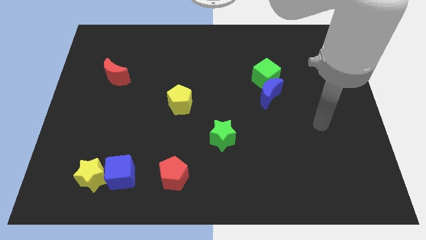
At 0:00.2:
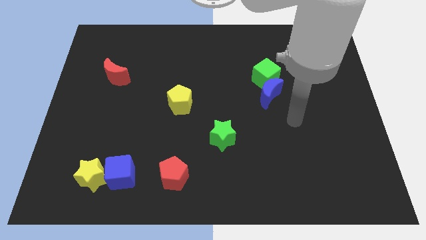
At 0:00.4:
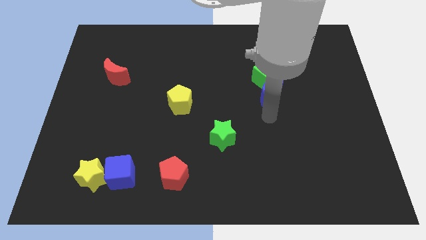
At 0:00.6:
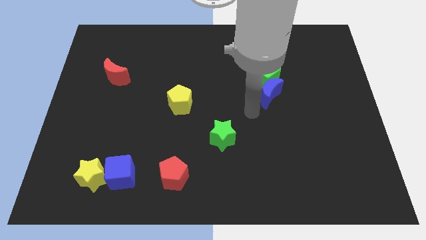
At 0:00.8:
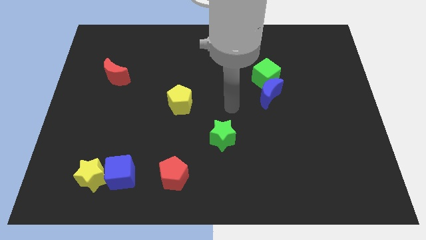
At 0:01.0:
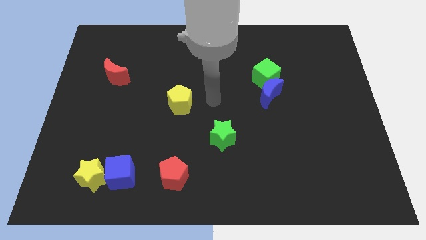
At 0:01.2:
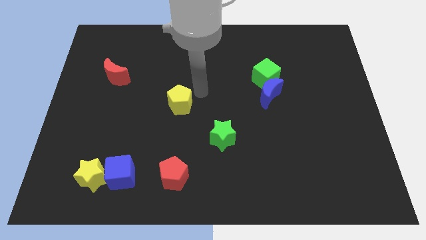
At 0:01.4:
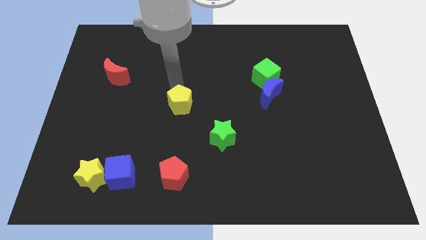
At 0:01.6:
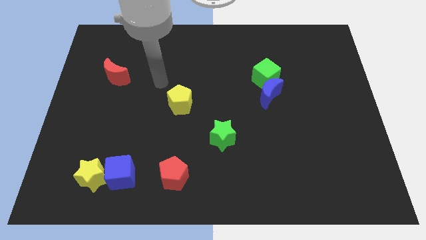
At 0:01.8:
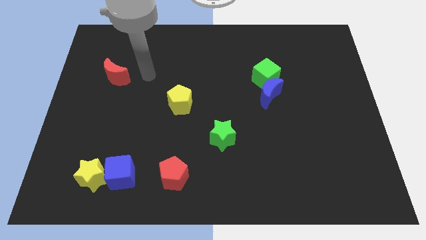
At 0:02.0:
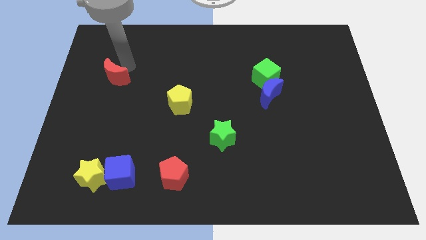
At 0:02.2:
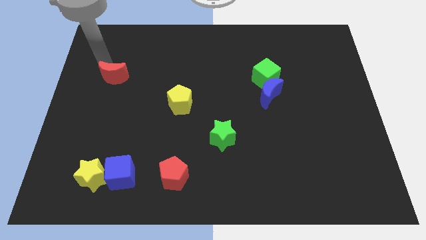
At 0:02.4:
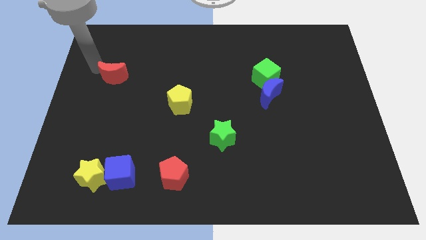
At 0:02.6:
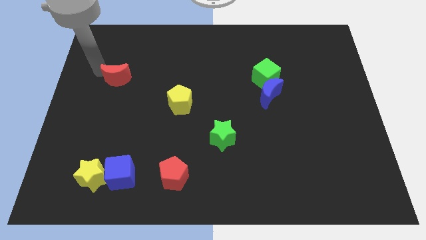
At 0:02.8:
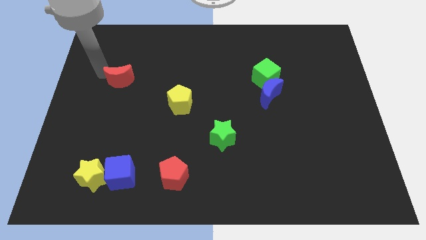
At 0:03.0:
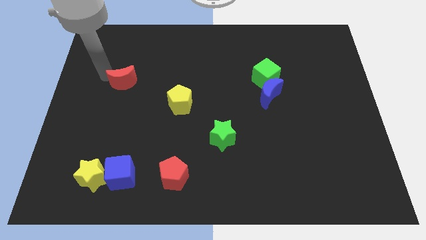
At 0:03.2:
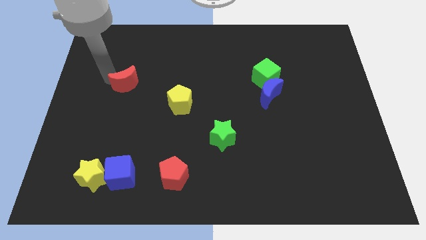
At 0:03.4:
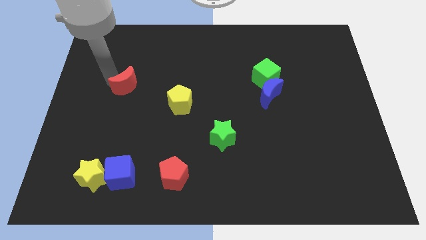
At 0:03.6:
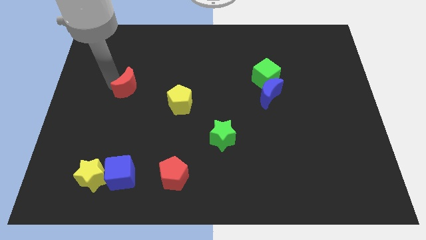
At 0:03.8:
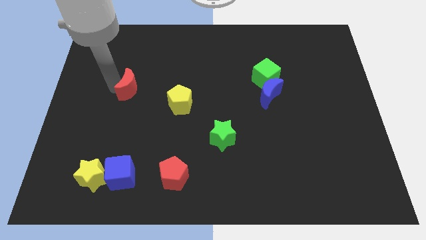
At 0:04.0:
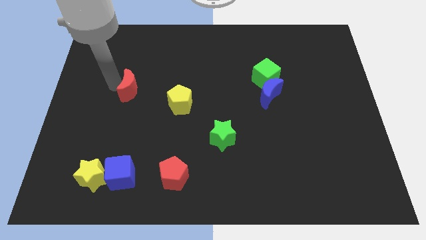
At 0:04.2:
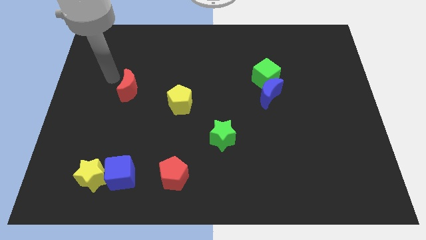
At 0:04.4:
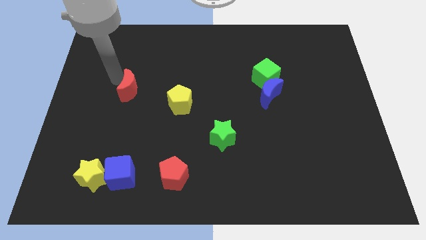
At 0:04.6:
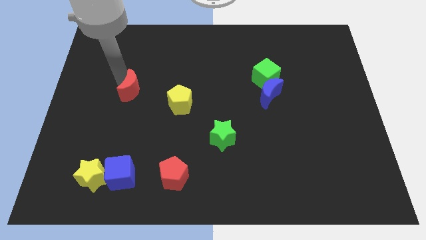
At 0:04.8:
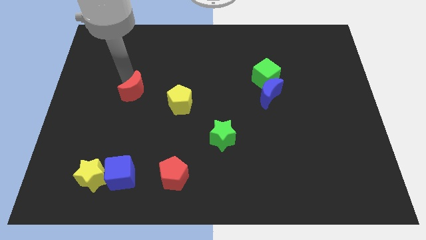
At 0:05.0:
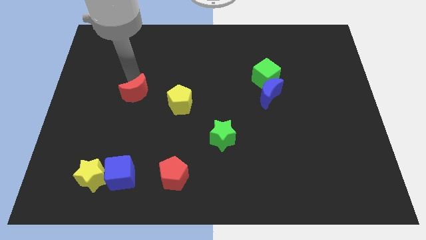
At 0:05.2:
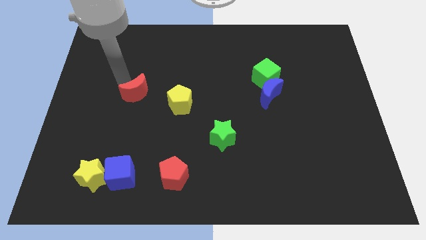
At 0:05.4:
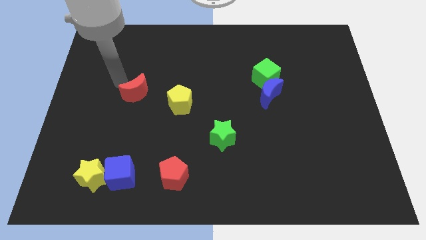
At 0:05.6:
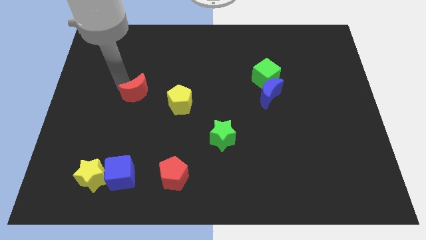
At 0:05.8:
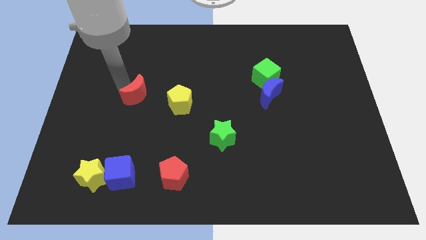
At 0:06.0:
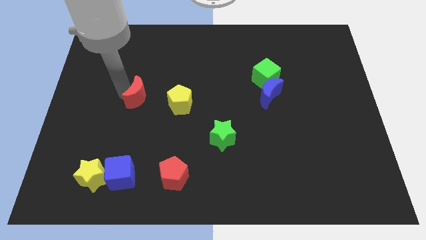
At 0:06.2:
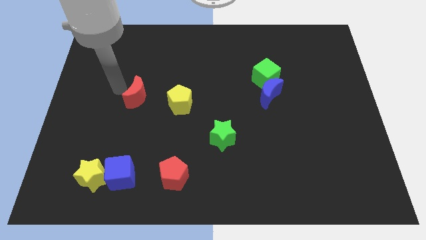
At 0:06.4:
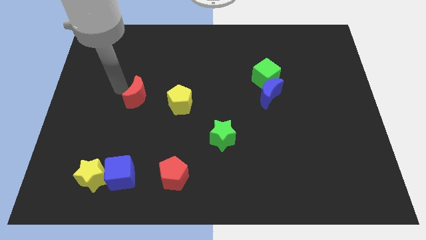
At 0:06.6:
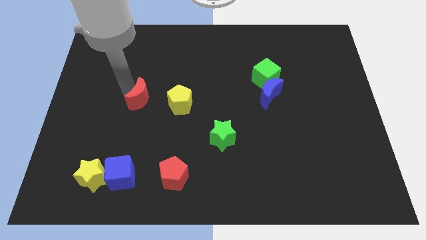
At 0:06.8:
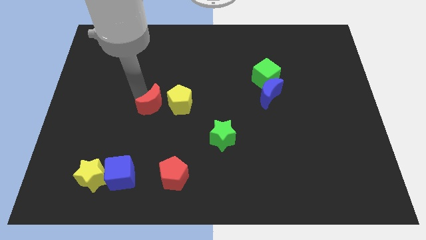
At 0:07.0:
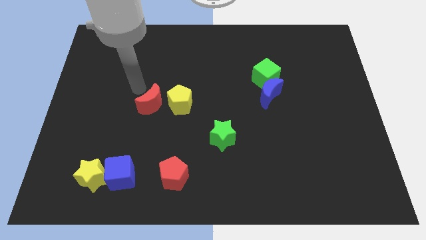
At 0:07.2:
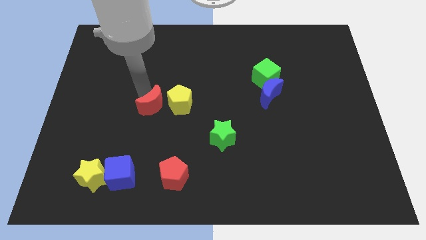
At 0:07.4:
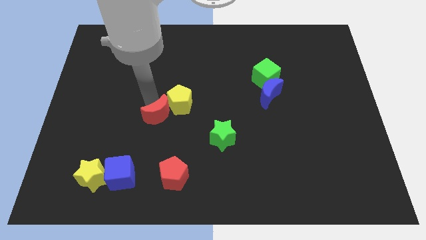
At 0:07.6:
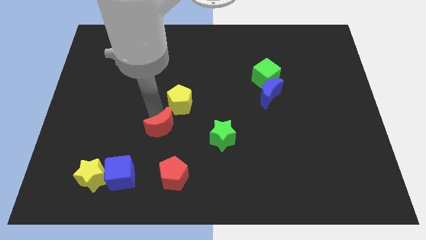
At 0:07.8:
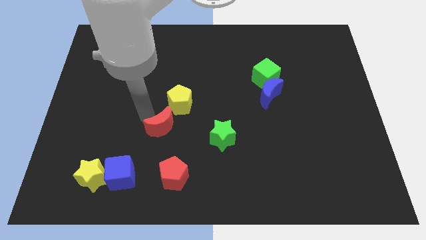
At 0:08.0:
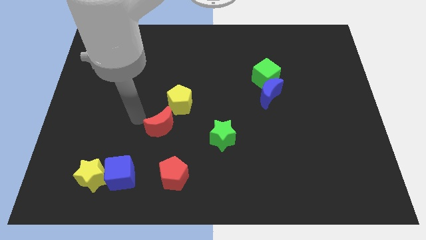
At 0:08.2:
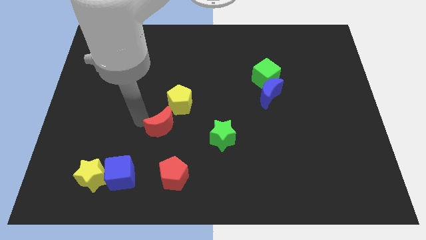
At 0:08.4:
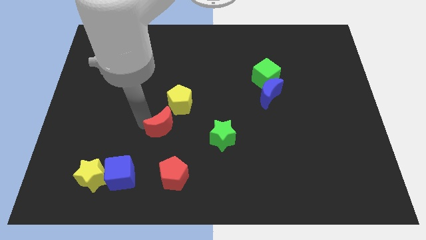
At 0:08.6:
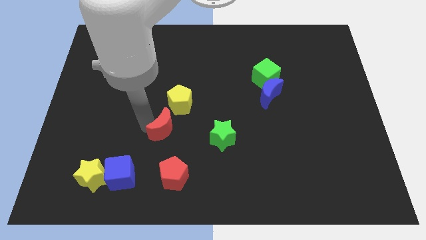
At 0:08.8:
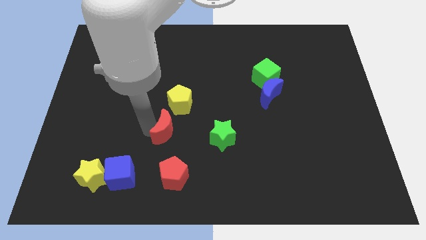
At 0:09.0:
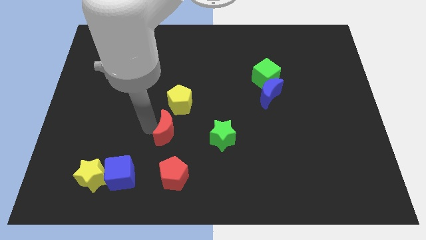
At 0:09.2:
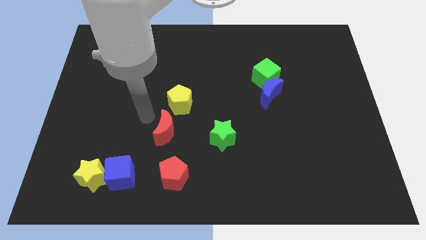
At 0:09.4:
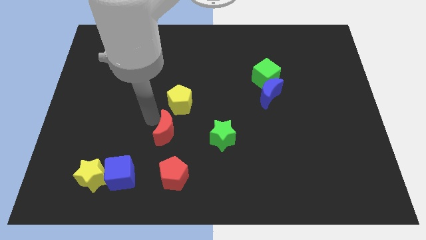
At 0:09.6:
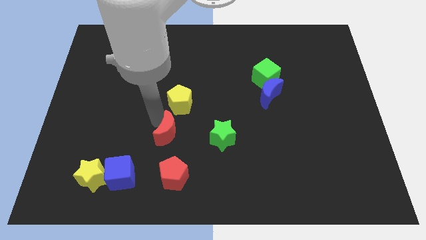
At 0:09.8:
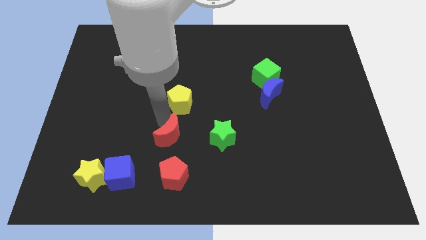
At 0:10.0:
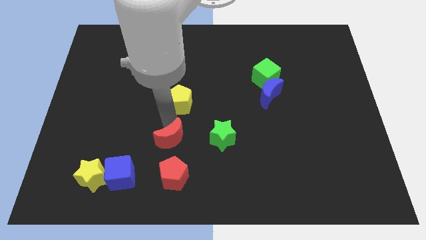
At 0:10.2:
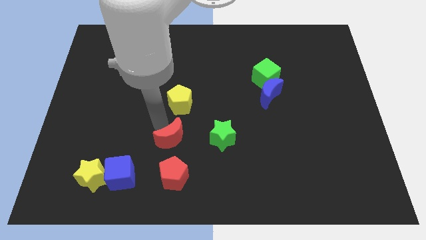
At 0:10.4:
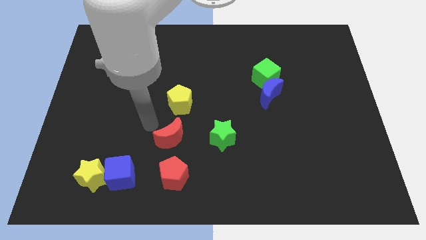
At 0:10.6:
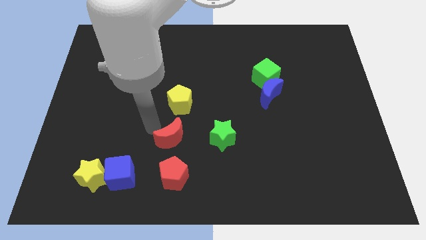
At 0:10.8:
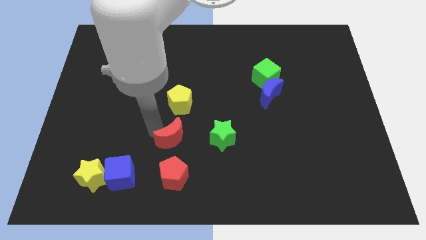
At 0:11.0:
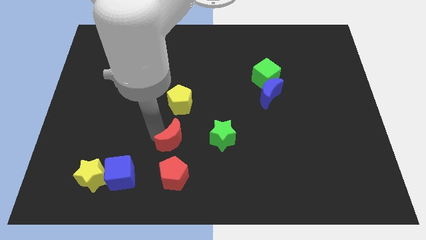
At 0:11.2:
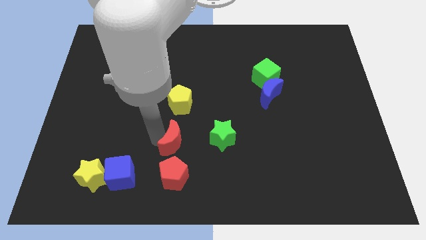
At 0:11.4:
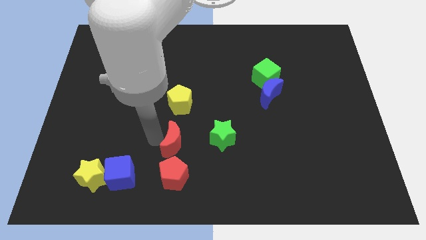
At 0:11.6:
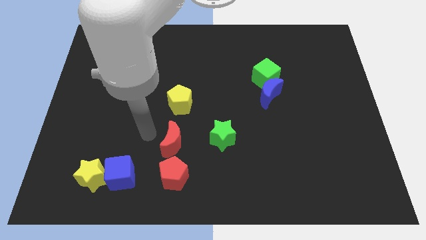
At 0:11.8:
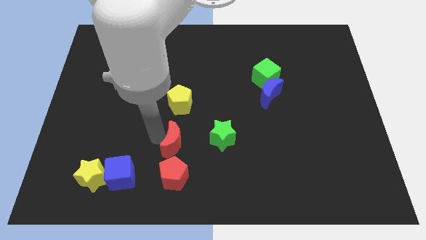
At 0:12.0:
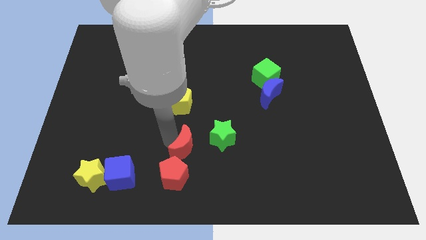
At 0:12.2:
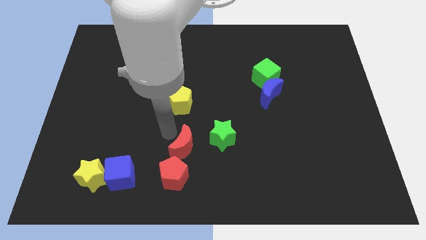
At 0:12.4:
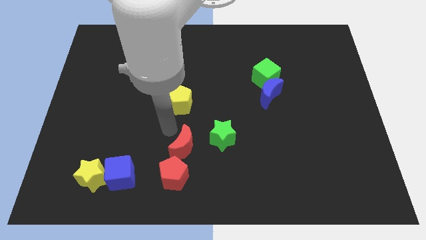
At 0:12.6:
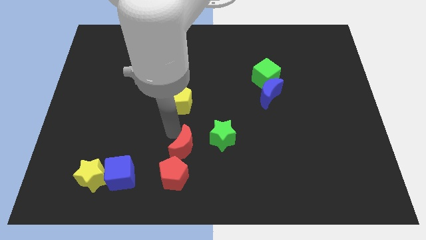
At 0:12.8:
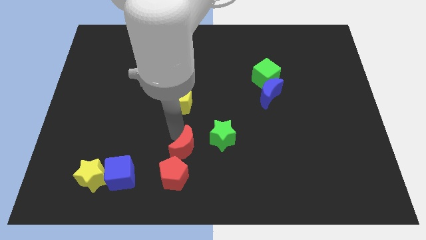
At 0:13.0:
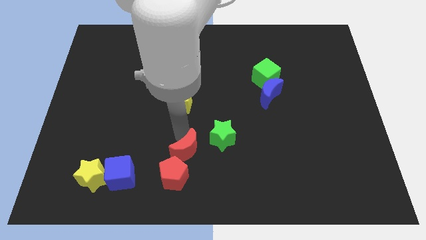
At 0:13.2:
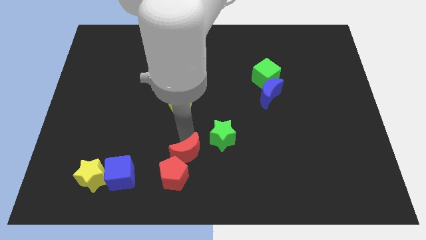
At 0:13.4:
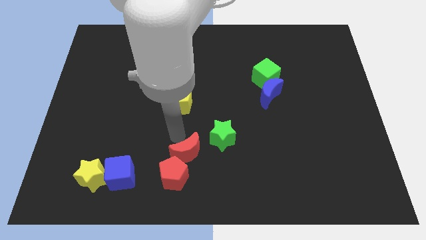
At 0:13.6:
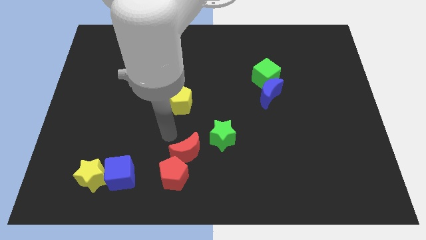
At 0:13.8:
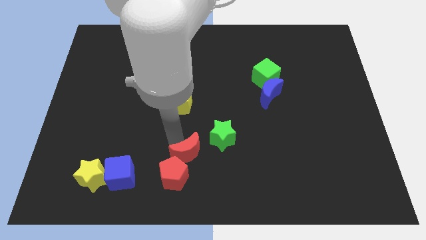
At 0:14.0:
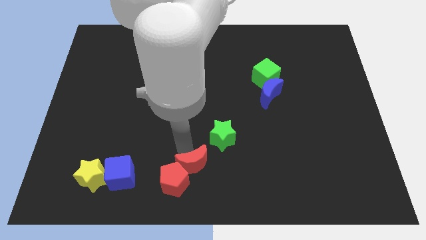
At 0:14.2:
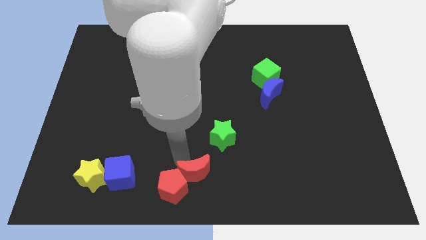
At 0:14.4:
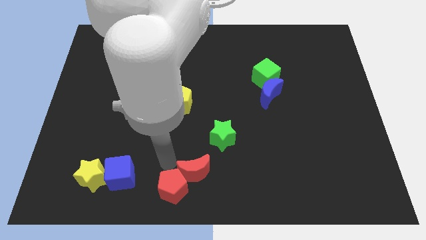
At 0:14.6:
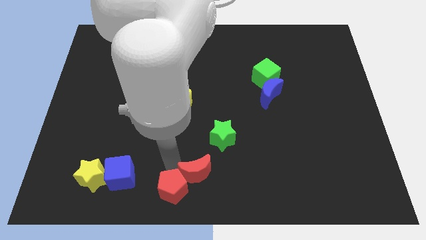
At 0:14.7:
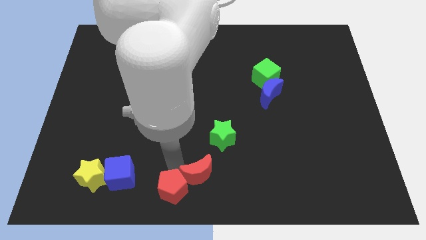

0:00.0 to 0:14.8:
slide the red moon to the bottom of the green star
